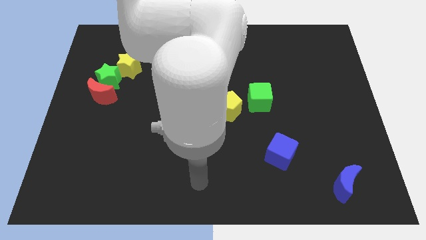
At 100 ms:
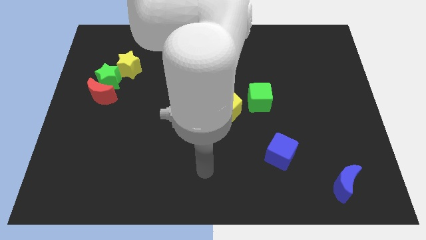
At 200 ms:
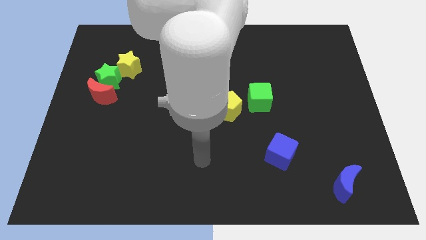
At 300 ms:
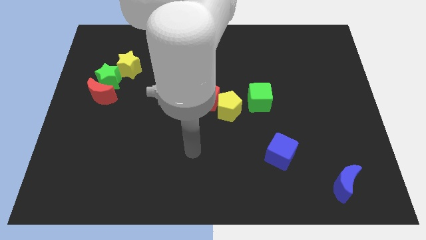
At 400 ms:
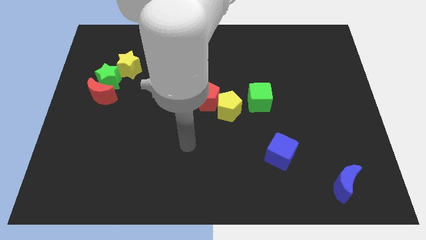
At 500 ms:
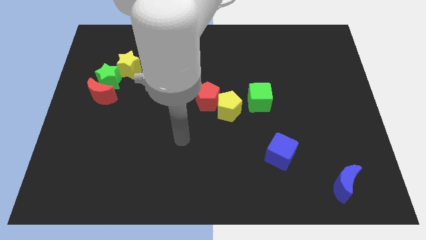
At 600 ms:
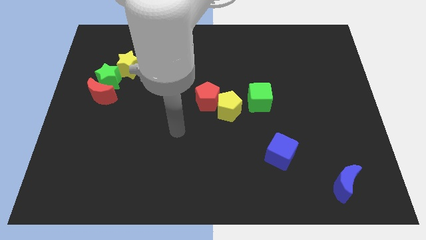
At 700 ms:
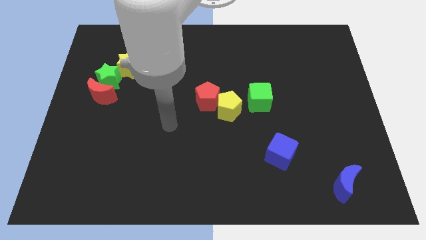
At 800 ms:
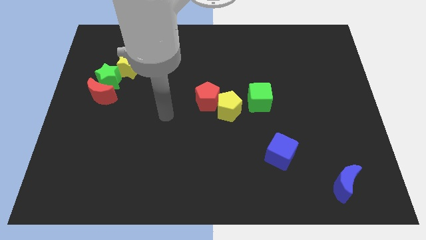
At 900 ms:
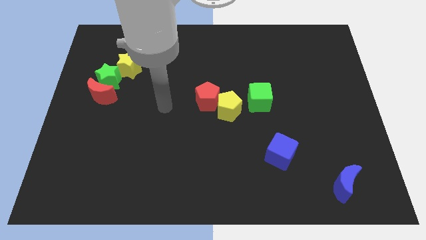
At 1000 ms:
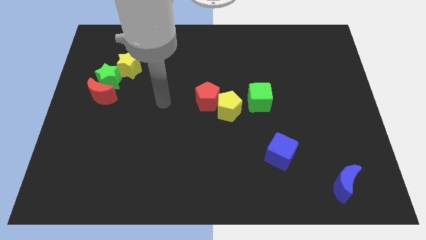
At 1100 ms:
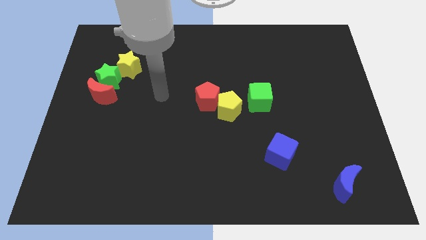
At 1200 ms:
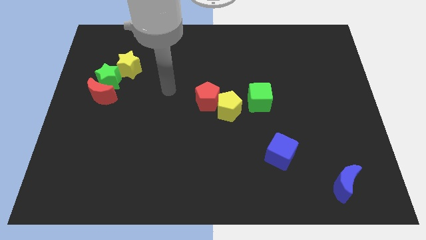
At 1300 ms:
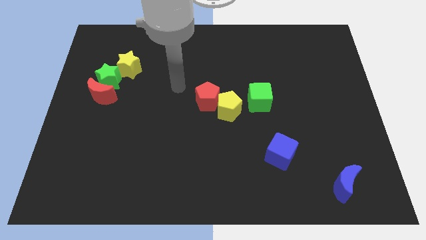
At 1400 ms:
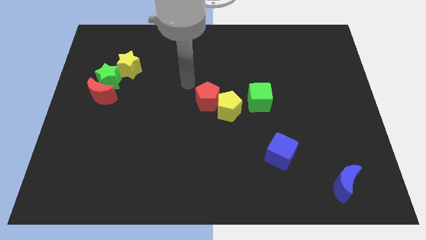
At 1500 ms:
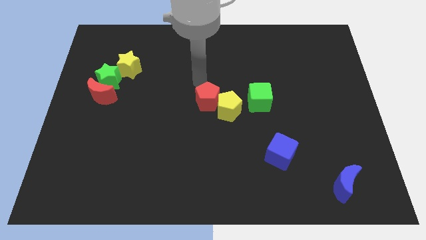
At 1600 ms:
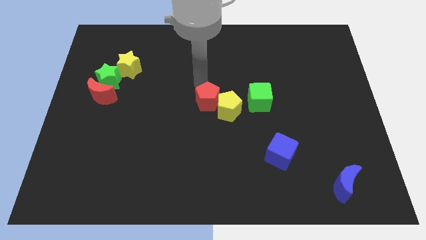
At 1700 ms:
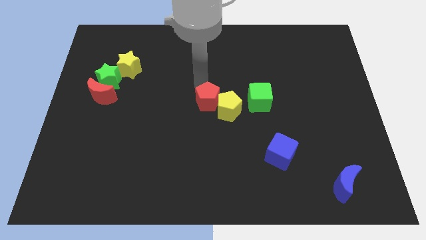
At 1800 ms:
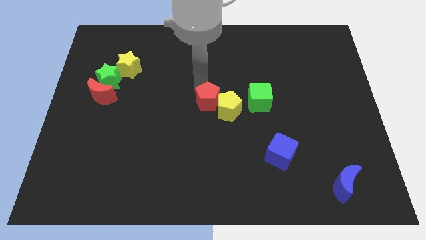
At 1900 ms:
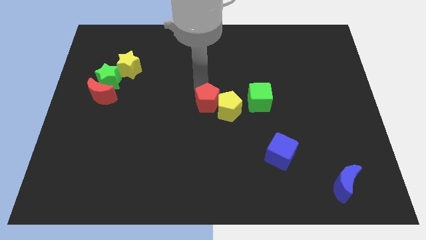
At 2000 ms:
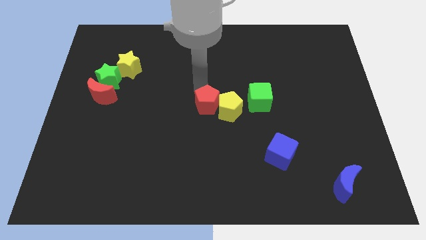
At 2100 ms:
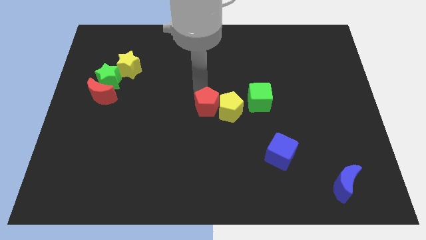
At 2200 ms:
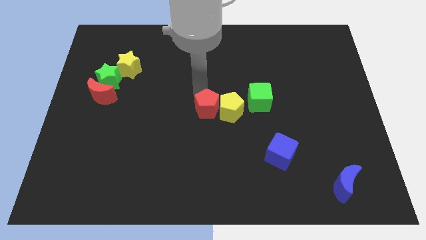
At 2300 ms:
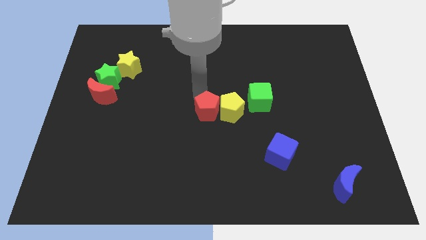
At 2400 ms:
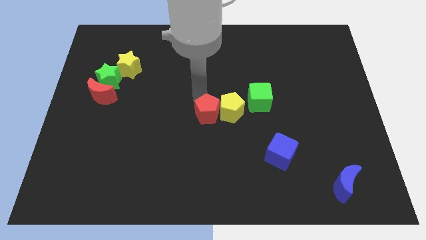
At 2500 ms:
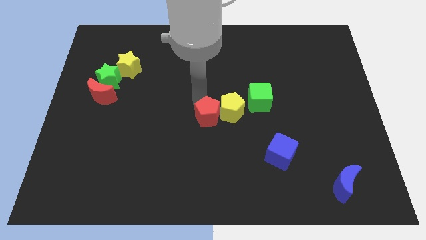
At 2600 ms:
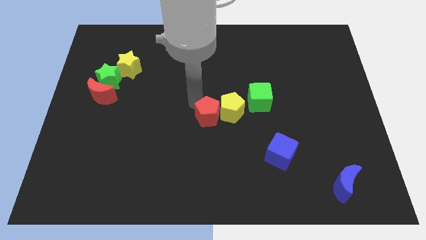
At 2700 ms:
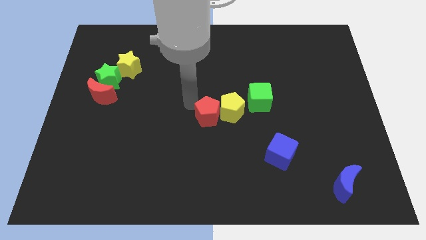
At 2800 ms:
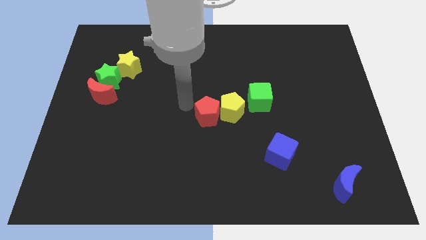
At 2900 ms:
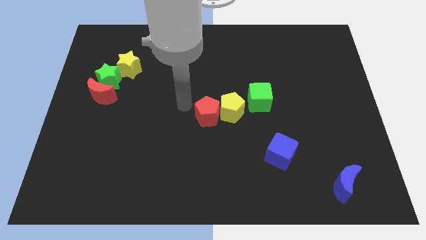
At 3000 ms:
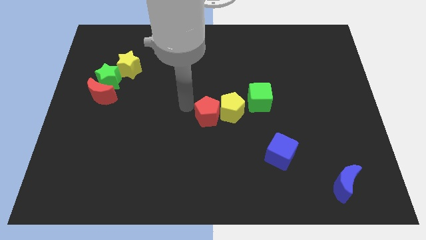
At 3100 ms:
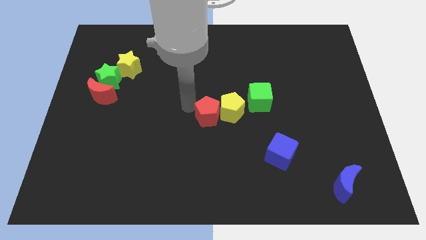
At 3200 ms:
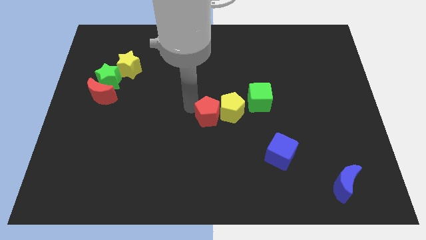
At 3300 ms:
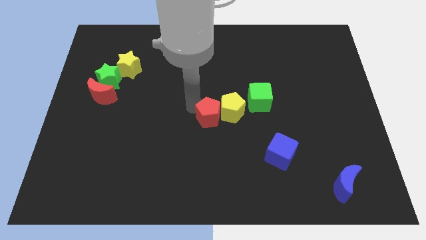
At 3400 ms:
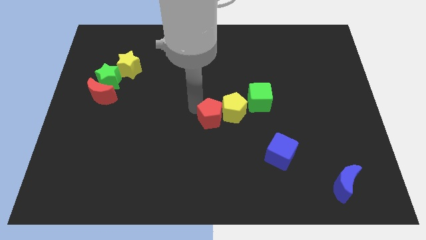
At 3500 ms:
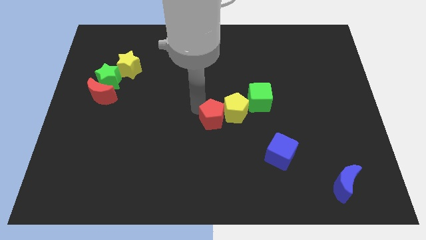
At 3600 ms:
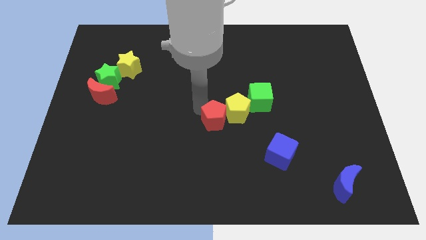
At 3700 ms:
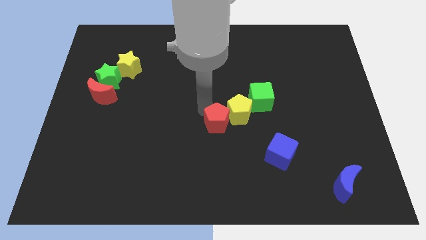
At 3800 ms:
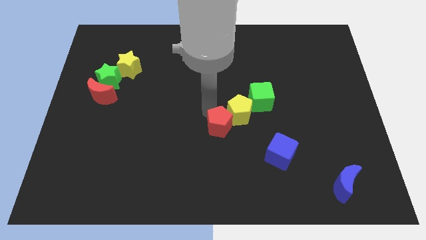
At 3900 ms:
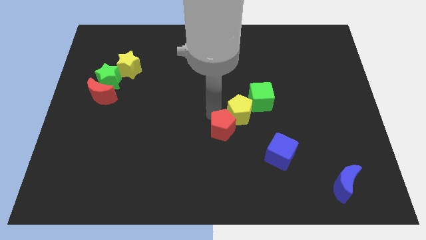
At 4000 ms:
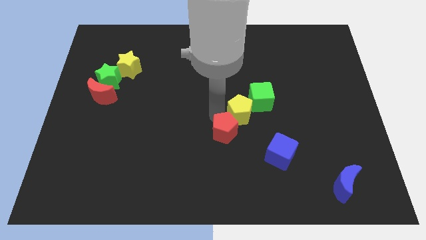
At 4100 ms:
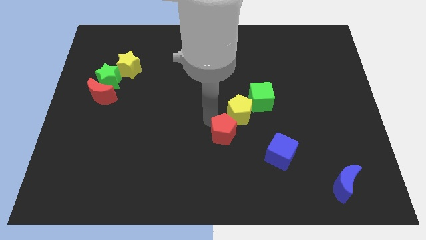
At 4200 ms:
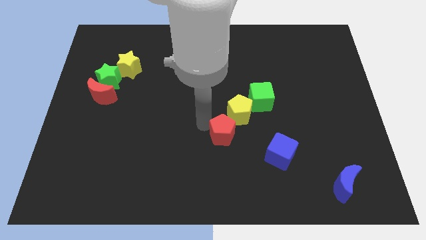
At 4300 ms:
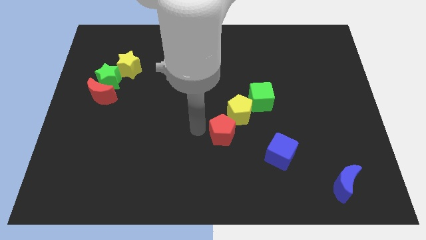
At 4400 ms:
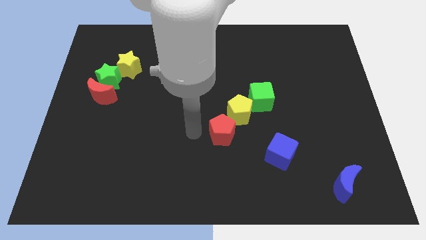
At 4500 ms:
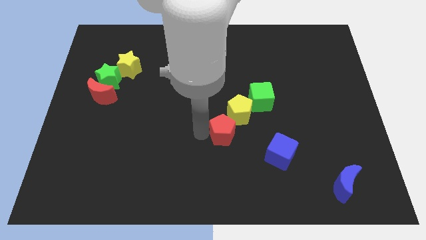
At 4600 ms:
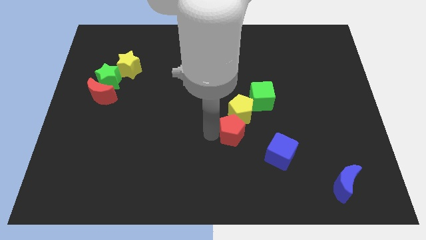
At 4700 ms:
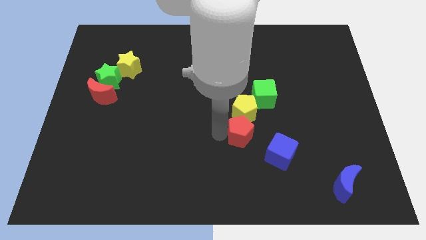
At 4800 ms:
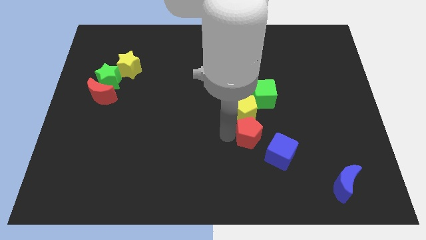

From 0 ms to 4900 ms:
slide the red pentagon to the bottom of the green cube

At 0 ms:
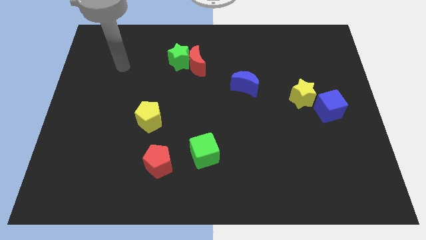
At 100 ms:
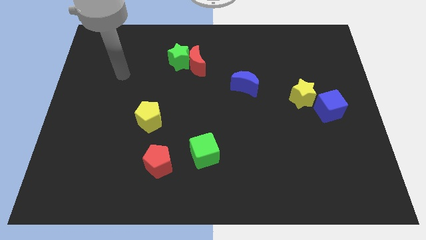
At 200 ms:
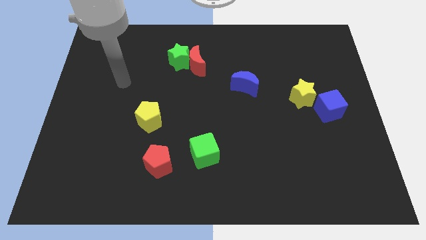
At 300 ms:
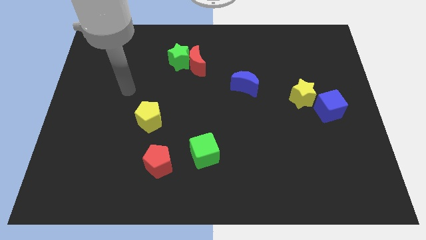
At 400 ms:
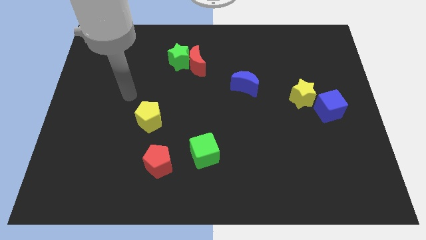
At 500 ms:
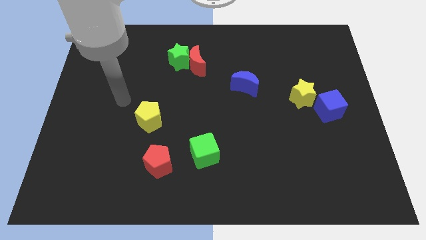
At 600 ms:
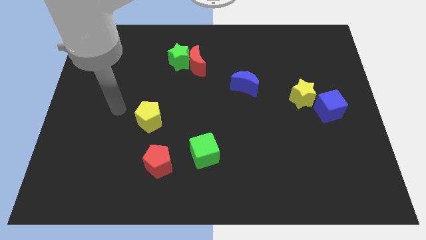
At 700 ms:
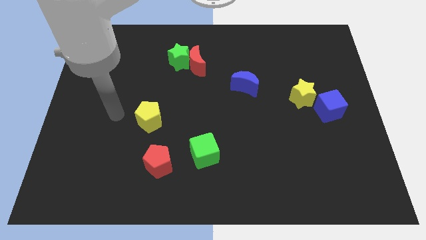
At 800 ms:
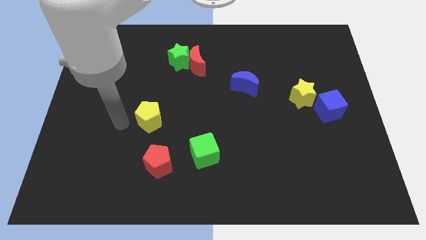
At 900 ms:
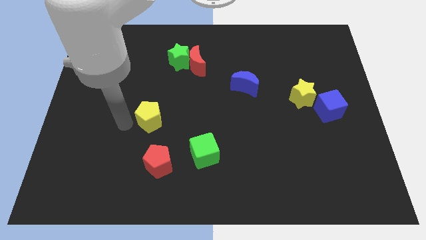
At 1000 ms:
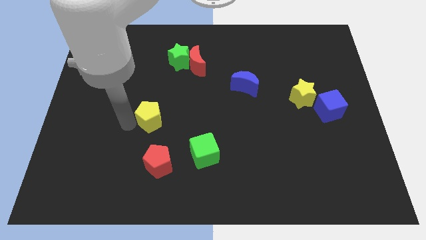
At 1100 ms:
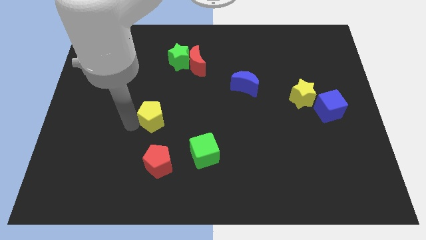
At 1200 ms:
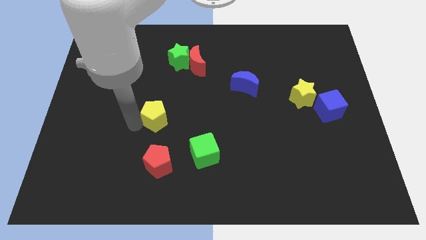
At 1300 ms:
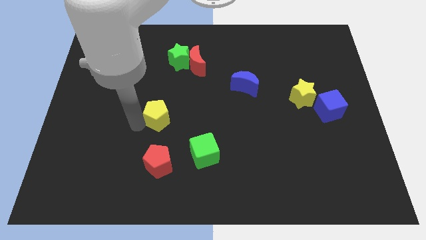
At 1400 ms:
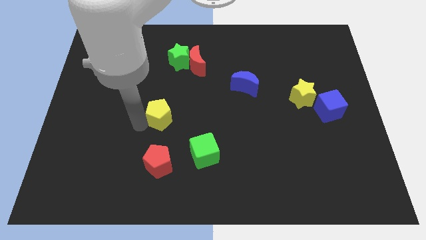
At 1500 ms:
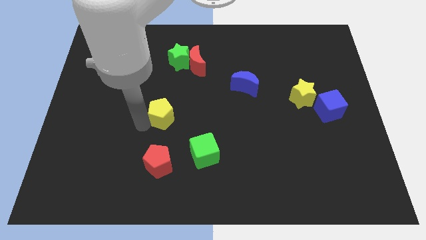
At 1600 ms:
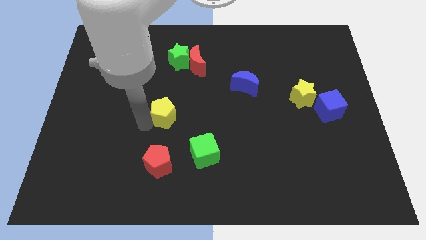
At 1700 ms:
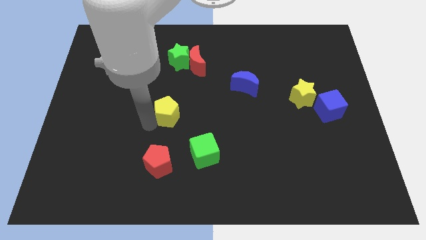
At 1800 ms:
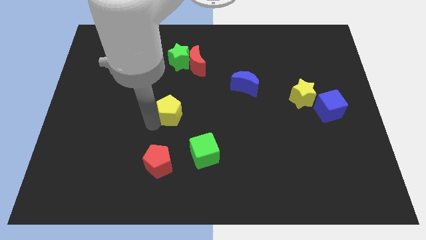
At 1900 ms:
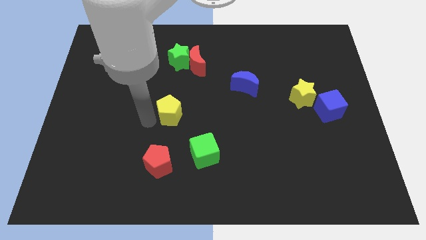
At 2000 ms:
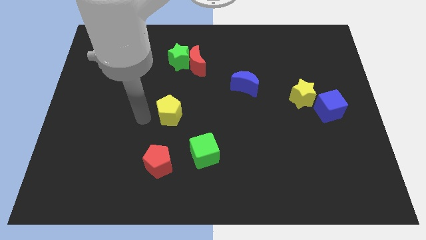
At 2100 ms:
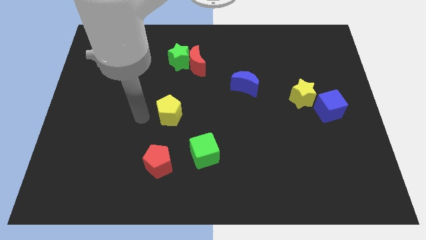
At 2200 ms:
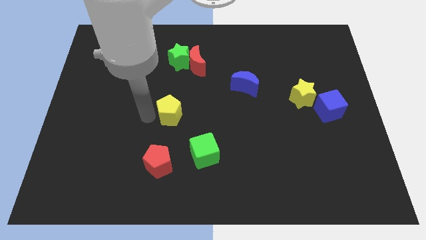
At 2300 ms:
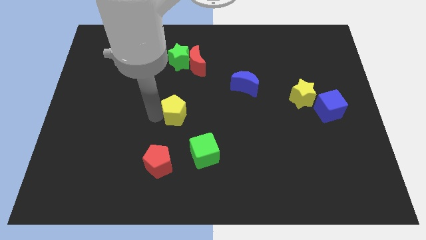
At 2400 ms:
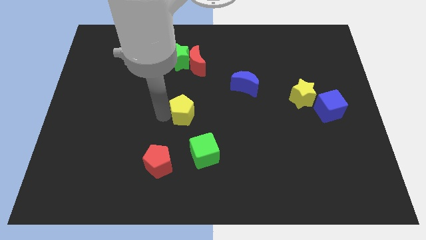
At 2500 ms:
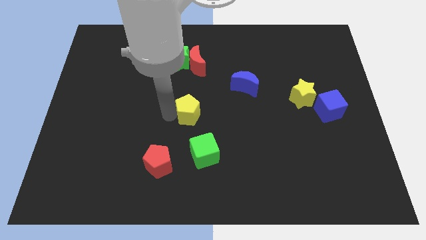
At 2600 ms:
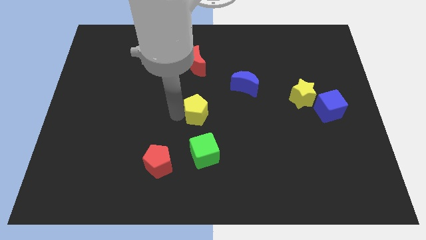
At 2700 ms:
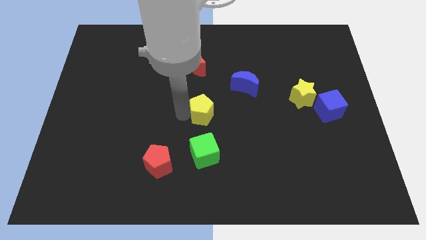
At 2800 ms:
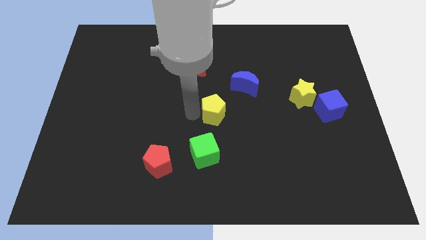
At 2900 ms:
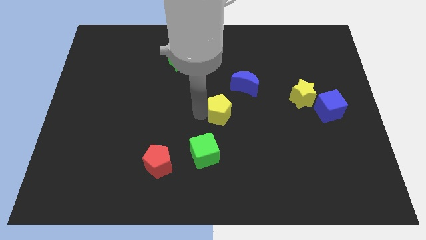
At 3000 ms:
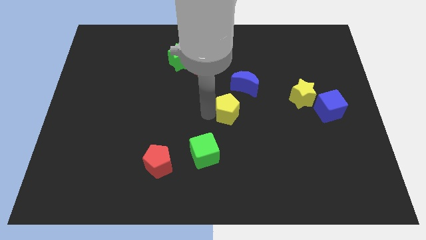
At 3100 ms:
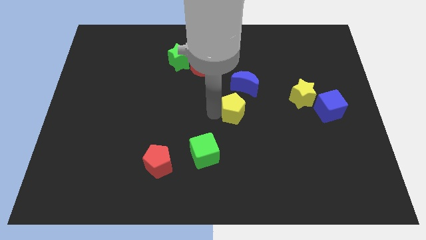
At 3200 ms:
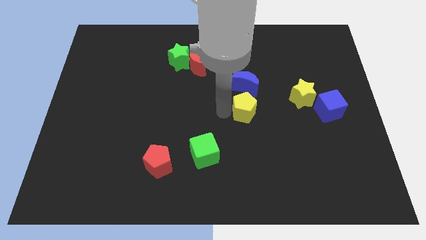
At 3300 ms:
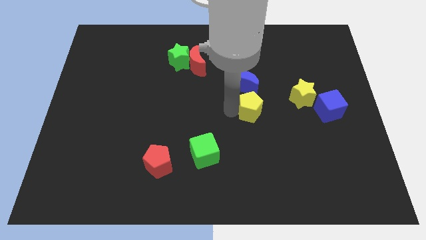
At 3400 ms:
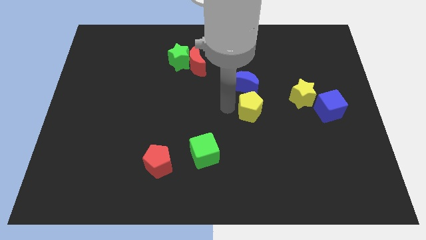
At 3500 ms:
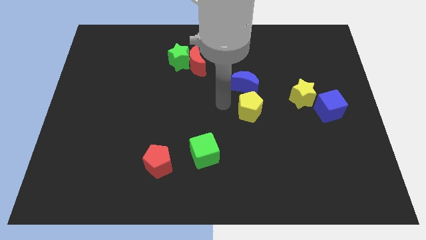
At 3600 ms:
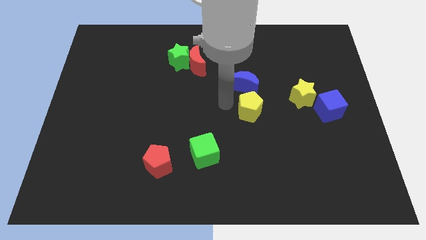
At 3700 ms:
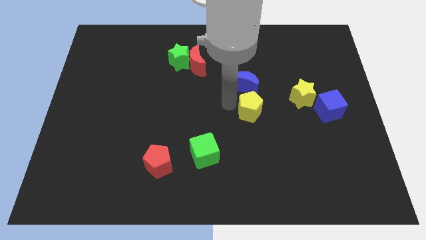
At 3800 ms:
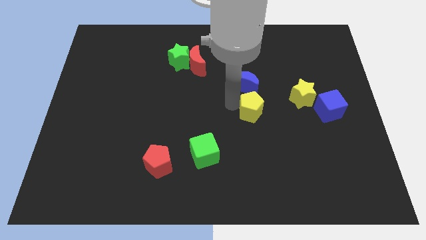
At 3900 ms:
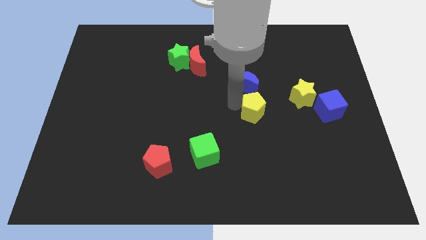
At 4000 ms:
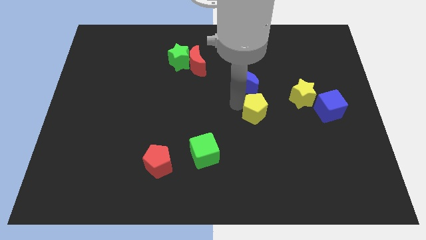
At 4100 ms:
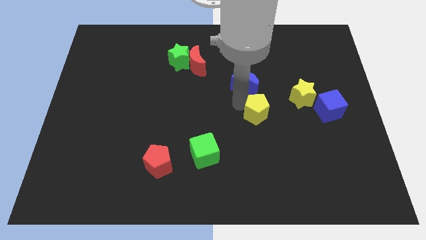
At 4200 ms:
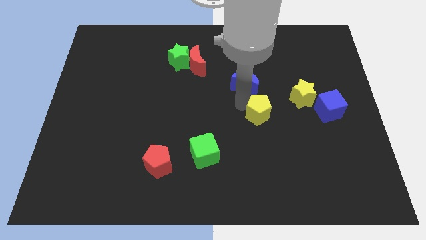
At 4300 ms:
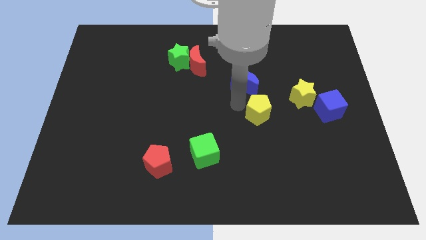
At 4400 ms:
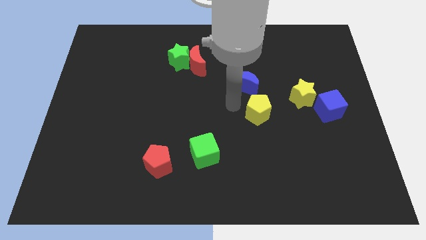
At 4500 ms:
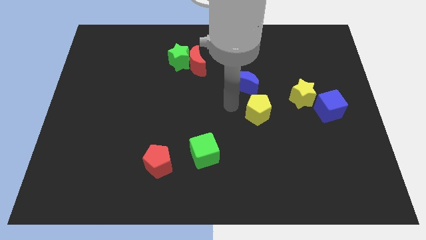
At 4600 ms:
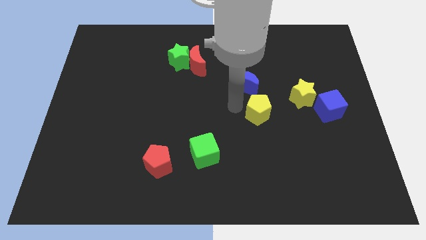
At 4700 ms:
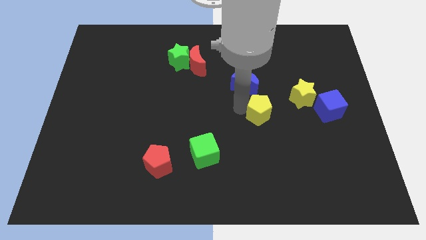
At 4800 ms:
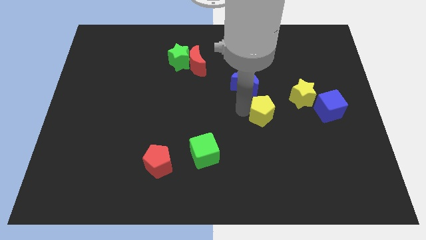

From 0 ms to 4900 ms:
slide the yellow pentagon to the left of the blue cube
